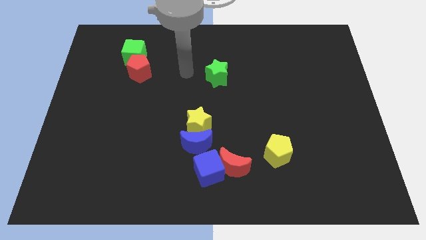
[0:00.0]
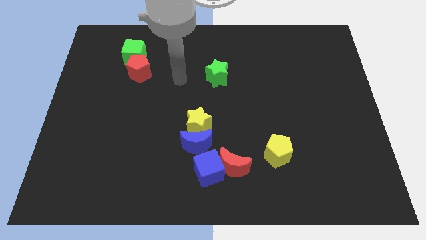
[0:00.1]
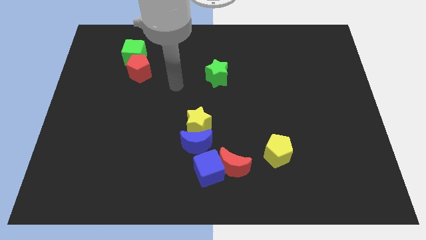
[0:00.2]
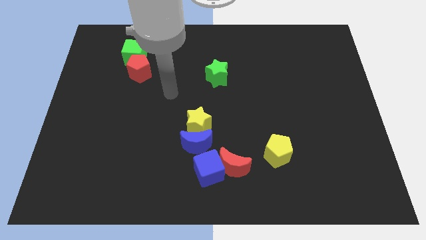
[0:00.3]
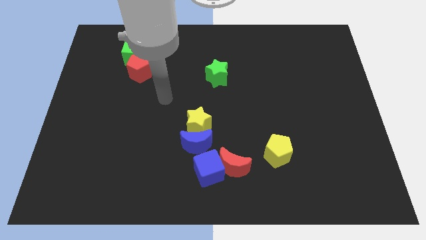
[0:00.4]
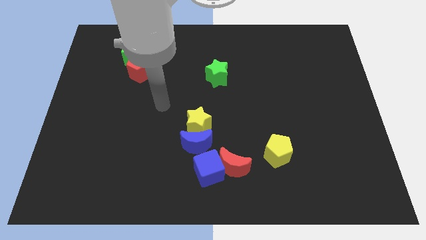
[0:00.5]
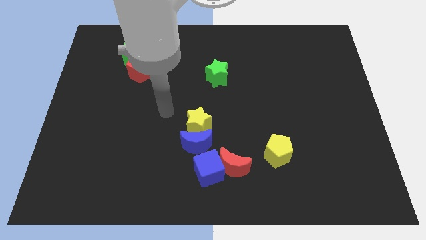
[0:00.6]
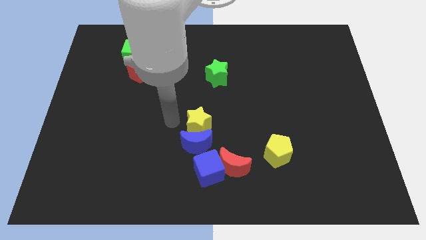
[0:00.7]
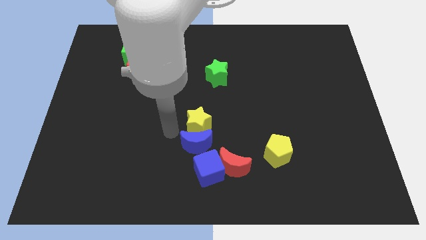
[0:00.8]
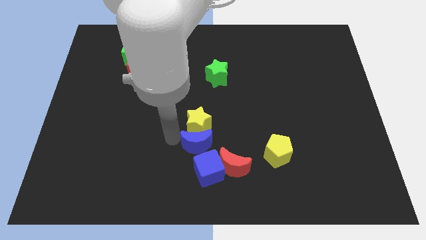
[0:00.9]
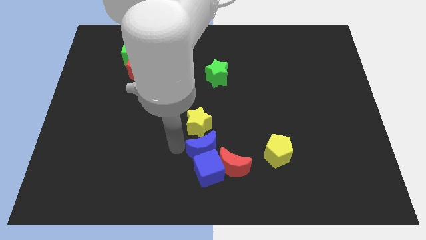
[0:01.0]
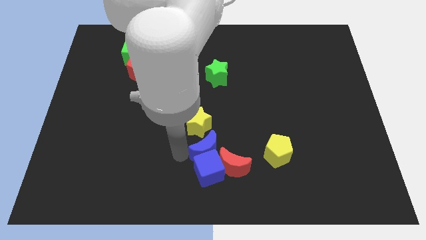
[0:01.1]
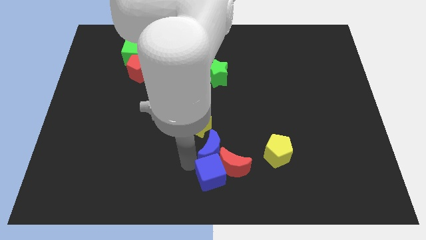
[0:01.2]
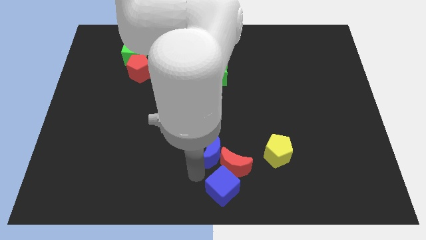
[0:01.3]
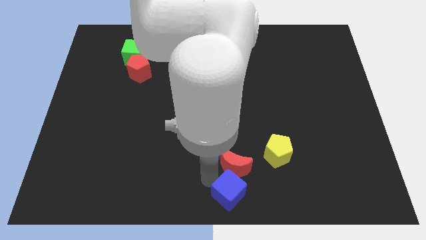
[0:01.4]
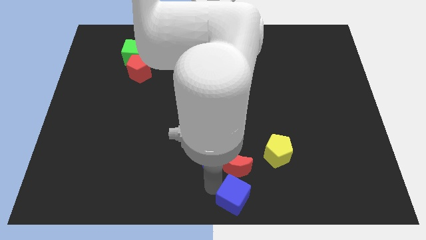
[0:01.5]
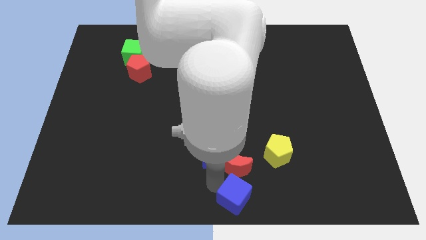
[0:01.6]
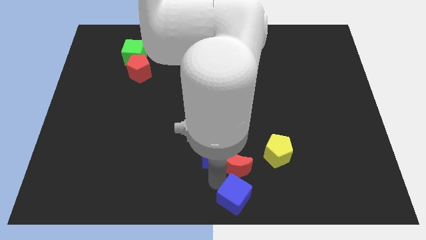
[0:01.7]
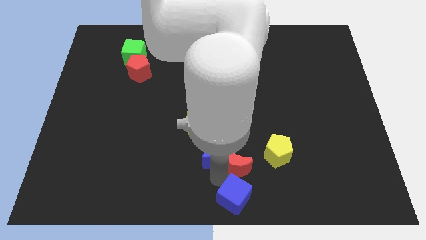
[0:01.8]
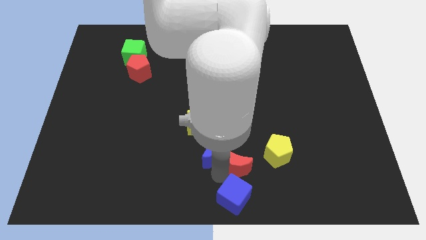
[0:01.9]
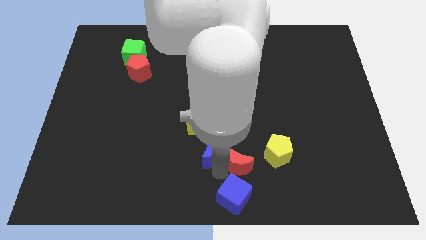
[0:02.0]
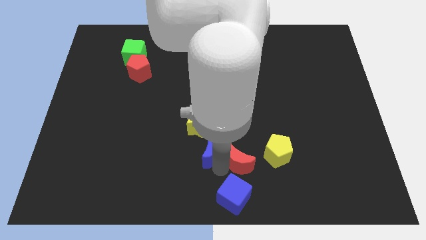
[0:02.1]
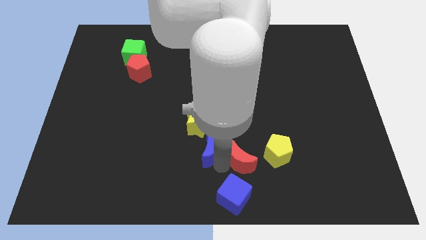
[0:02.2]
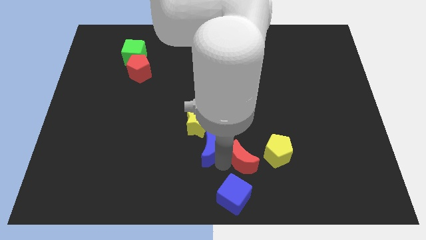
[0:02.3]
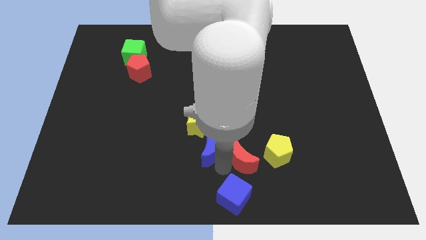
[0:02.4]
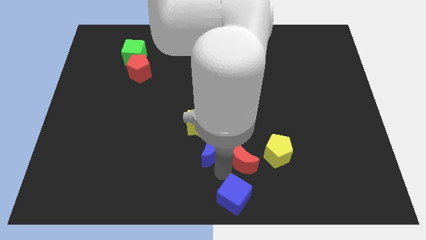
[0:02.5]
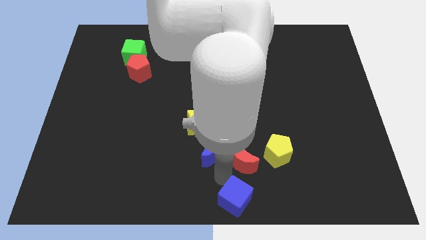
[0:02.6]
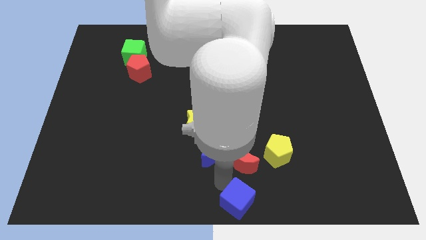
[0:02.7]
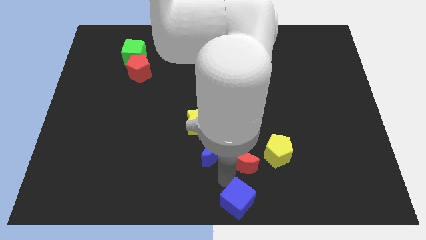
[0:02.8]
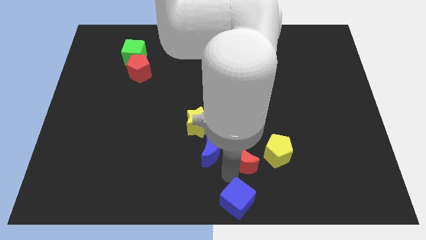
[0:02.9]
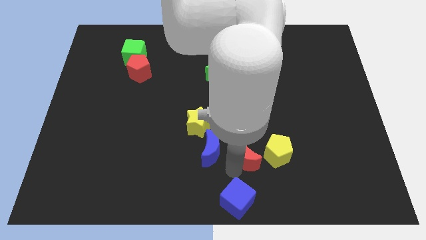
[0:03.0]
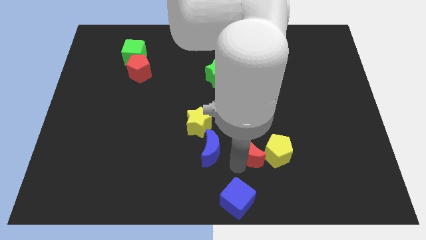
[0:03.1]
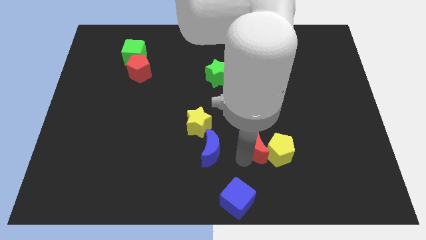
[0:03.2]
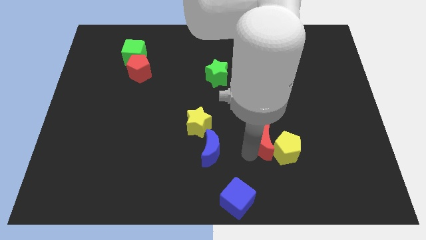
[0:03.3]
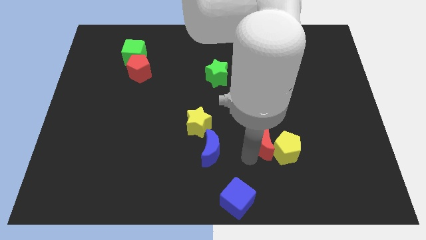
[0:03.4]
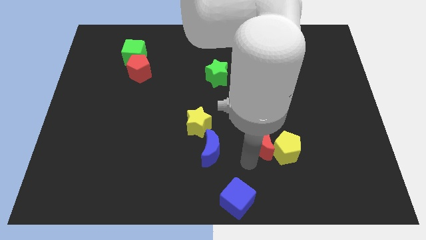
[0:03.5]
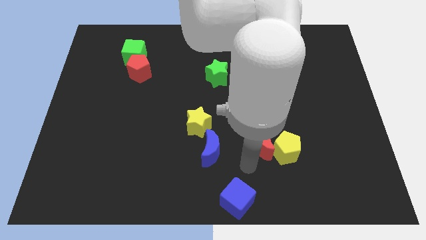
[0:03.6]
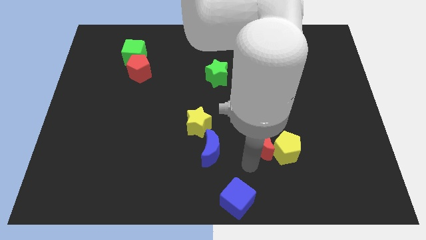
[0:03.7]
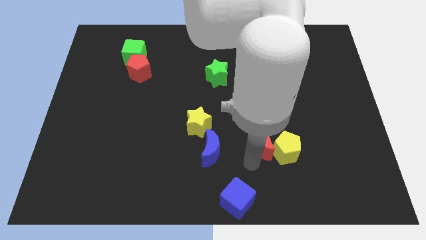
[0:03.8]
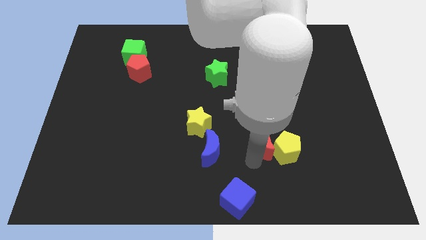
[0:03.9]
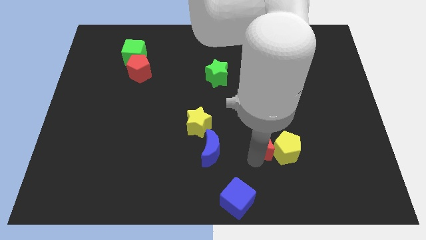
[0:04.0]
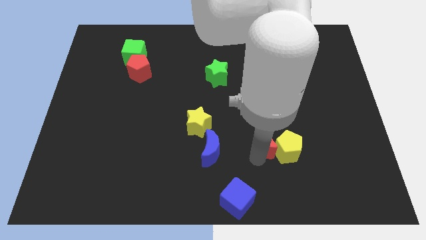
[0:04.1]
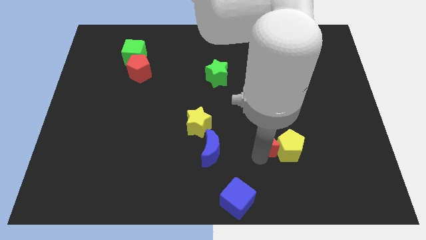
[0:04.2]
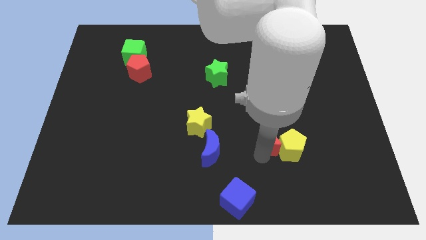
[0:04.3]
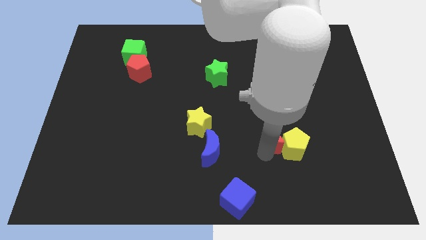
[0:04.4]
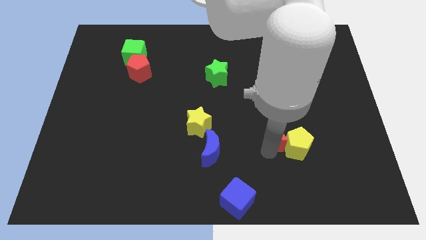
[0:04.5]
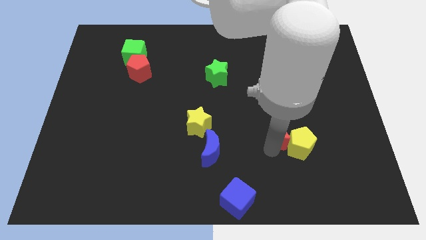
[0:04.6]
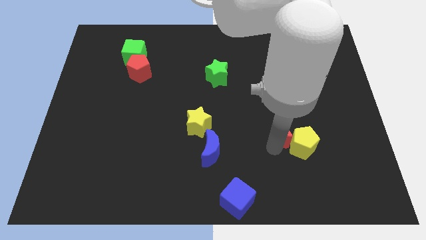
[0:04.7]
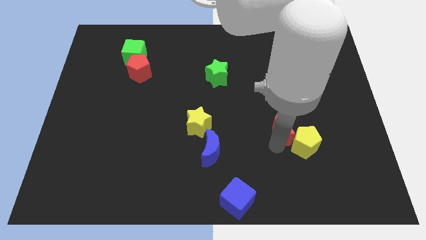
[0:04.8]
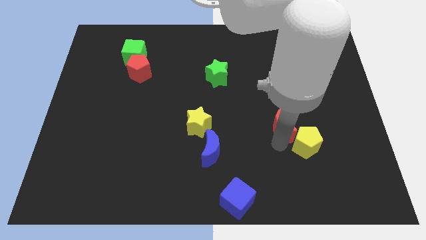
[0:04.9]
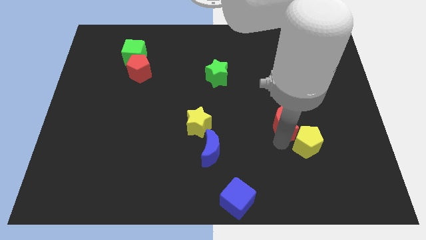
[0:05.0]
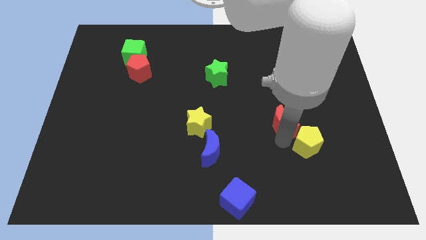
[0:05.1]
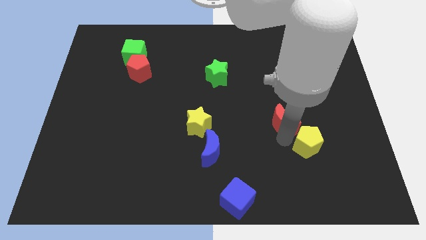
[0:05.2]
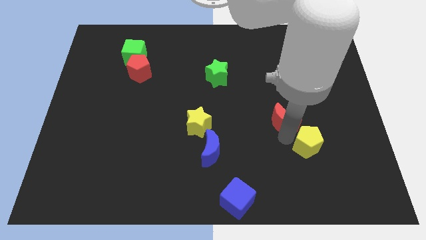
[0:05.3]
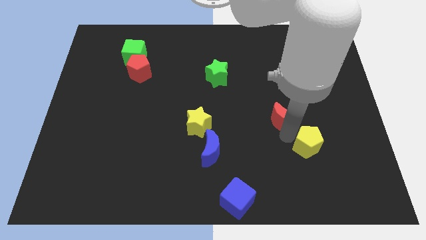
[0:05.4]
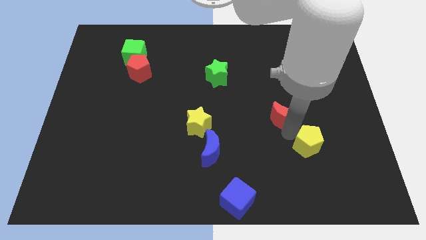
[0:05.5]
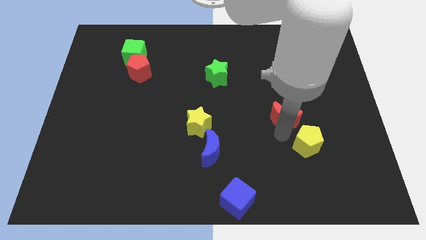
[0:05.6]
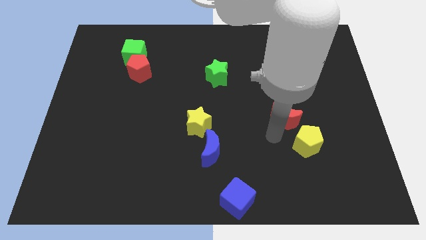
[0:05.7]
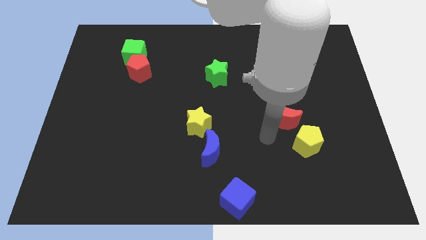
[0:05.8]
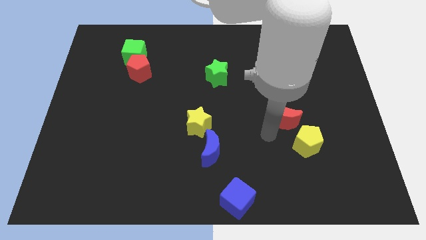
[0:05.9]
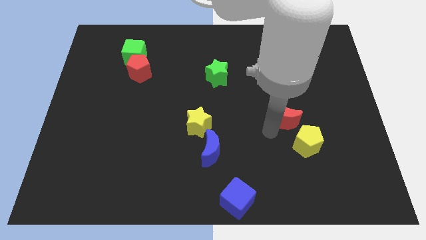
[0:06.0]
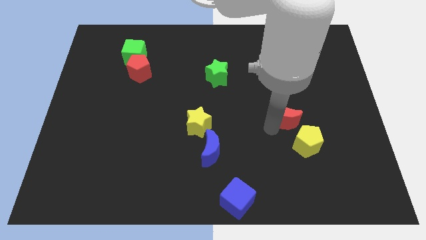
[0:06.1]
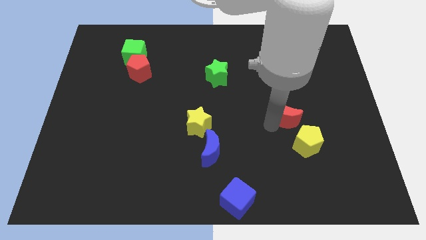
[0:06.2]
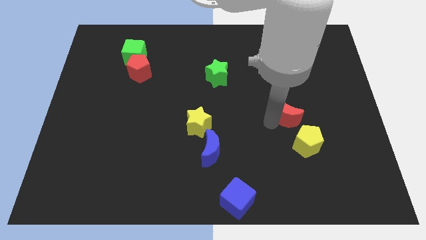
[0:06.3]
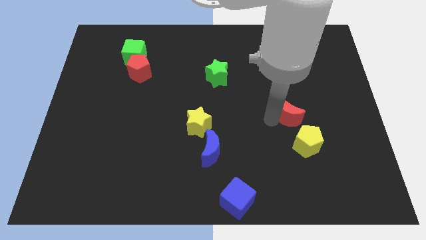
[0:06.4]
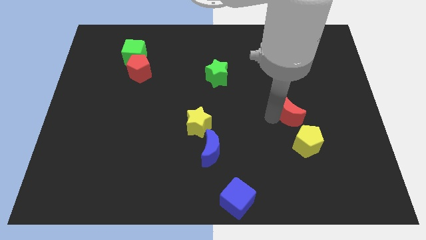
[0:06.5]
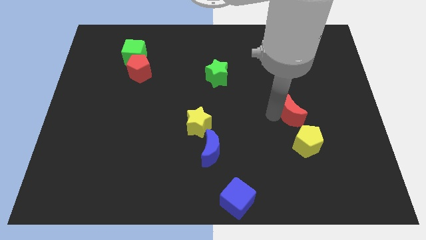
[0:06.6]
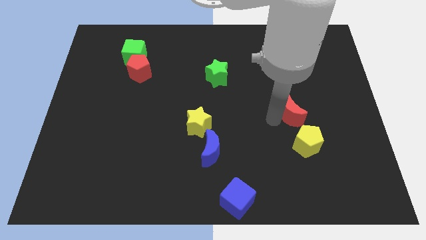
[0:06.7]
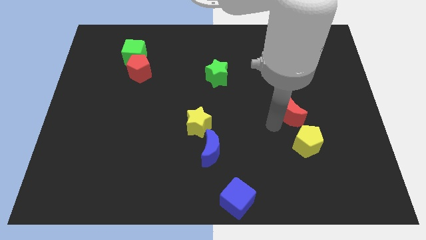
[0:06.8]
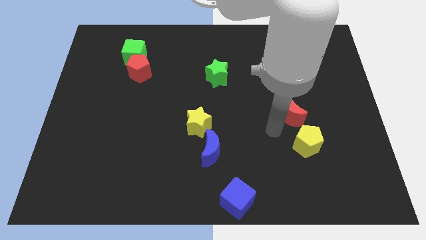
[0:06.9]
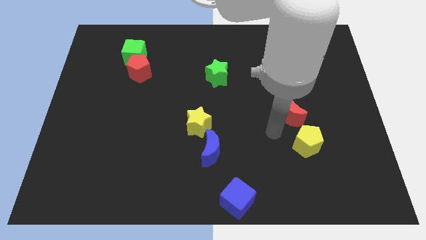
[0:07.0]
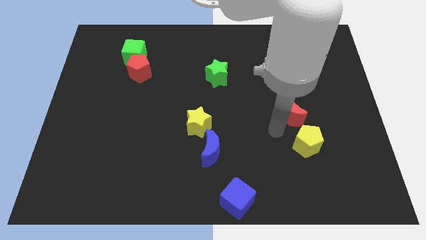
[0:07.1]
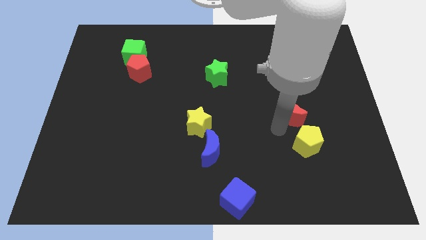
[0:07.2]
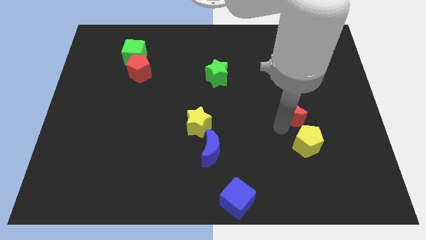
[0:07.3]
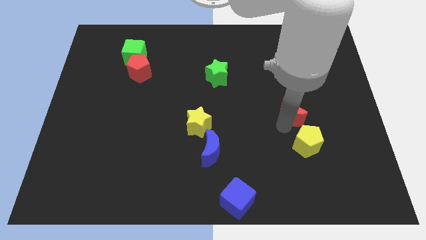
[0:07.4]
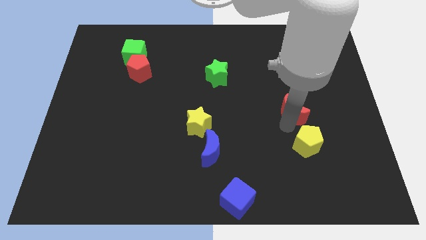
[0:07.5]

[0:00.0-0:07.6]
push the red moon up and then to the right
